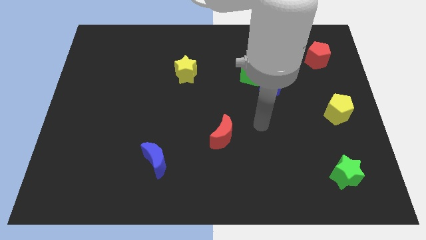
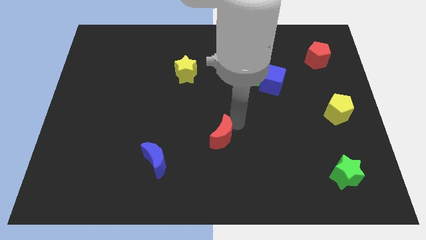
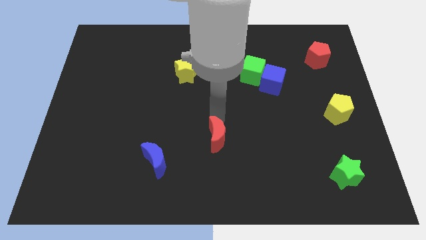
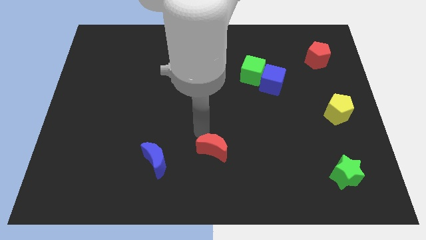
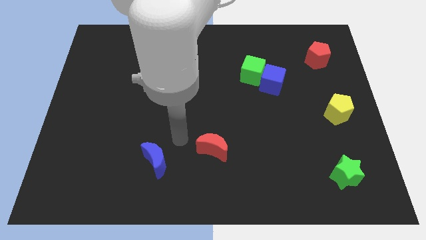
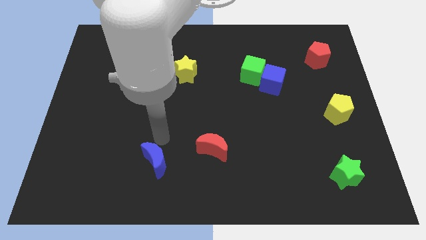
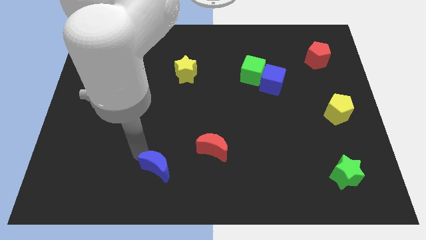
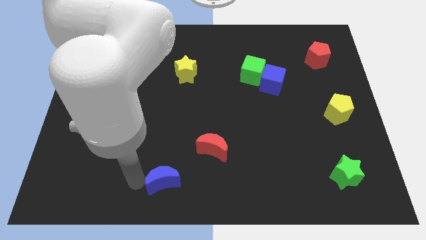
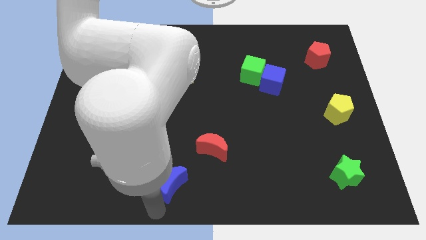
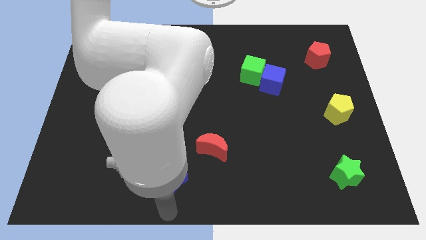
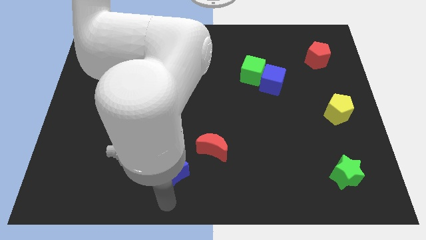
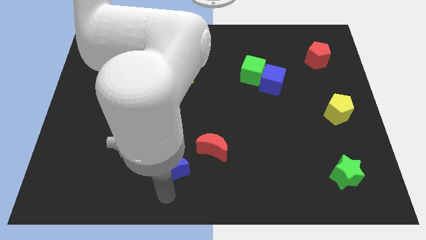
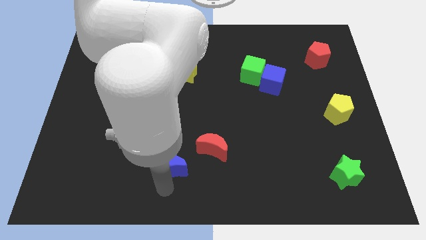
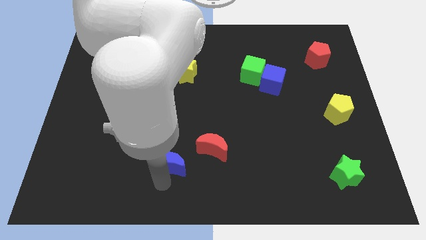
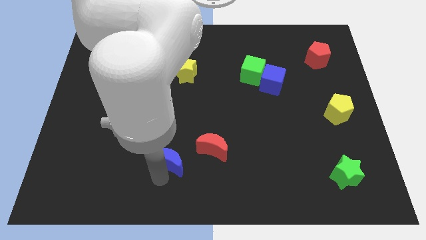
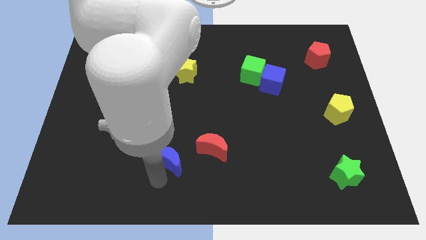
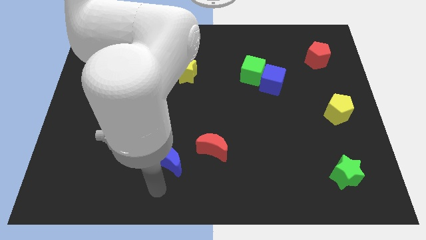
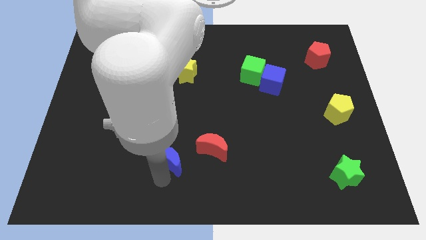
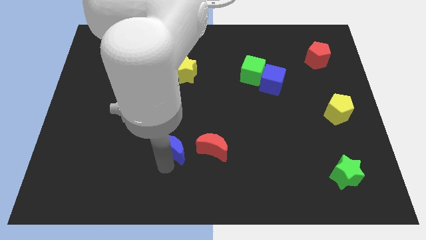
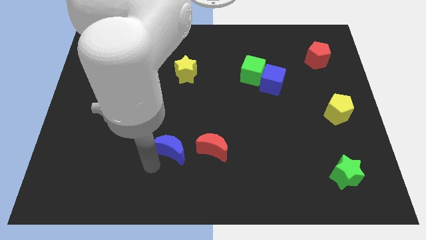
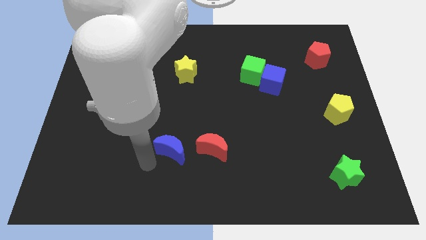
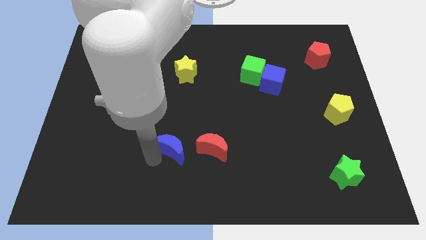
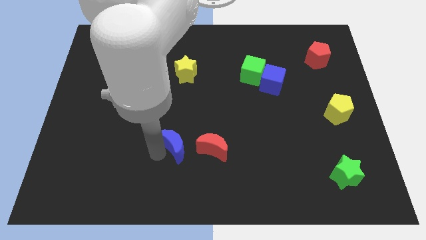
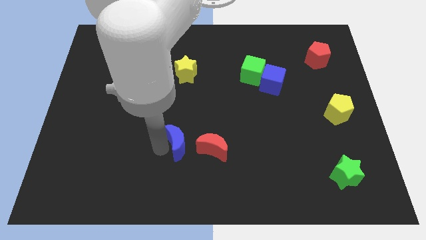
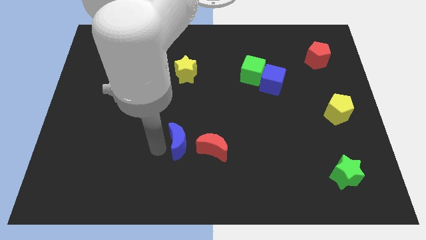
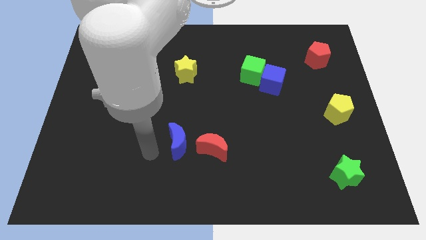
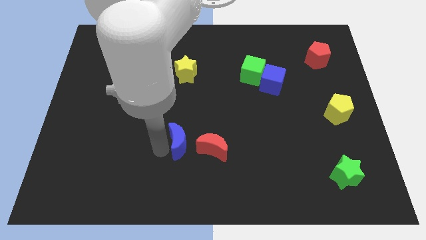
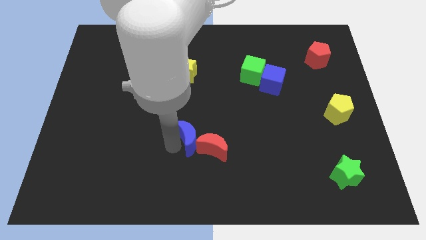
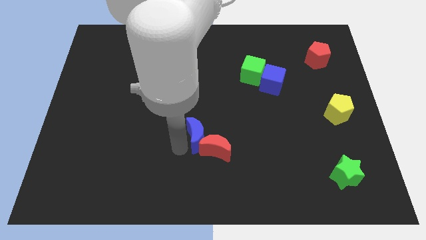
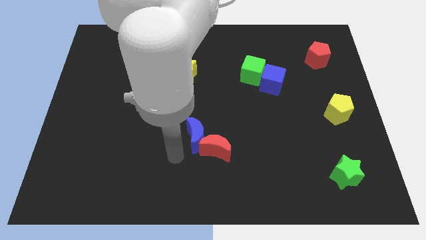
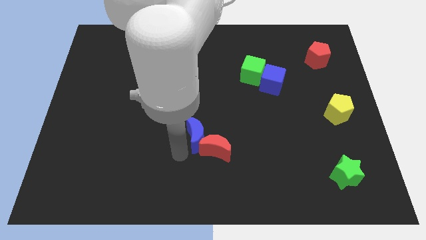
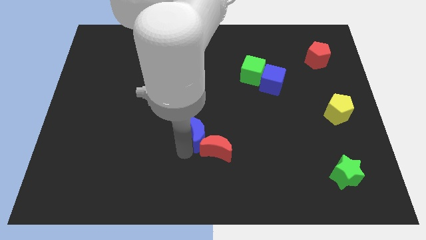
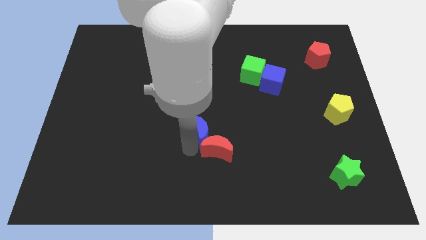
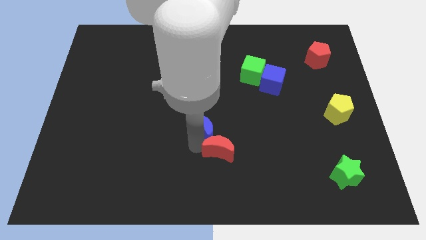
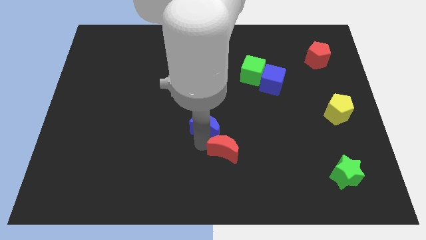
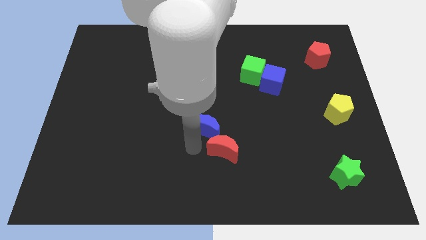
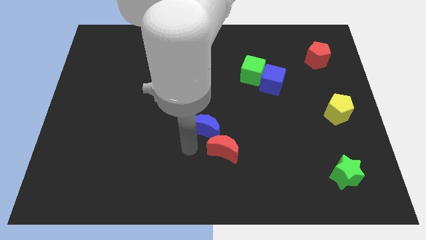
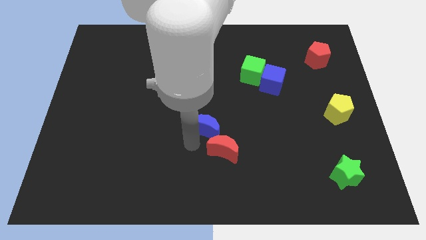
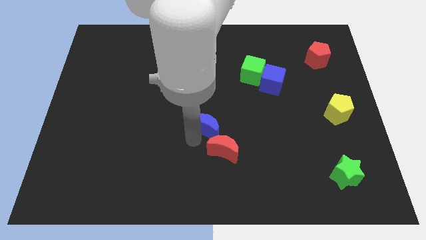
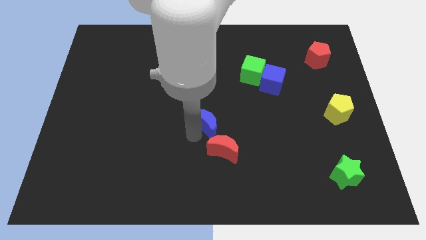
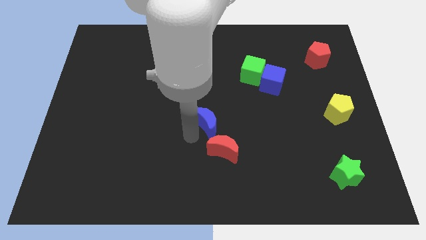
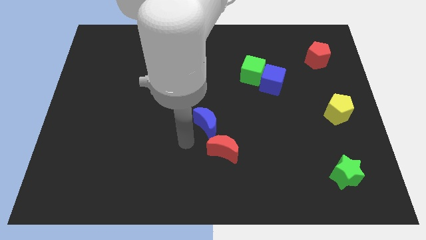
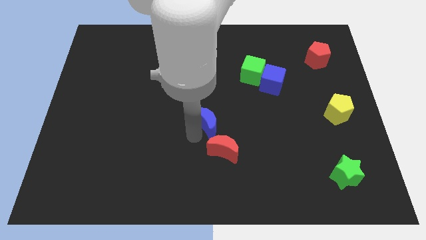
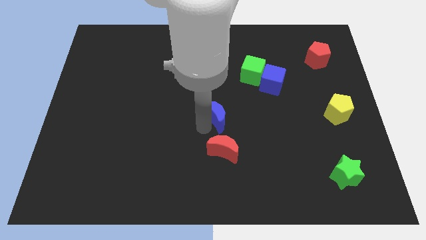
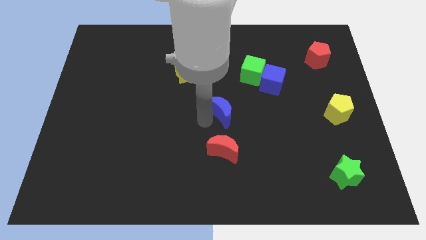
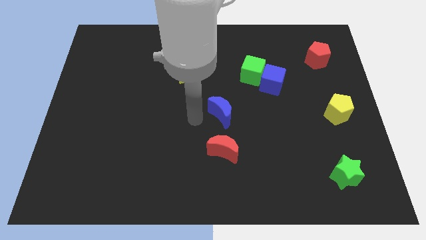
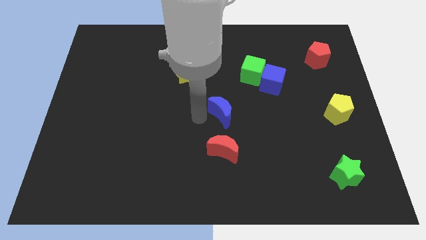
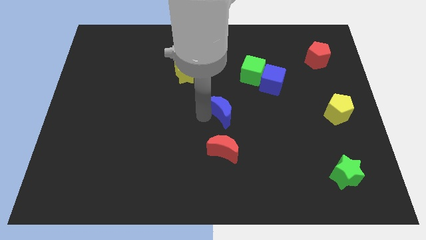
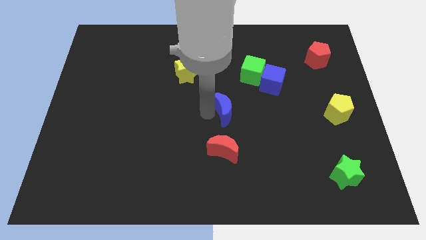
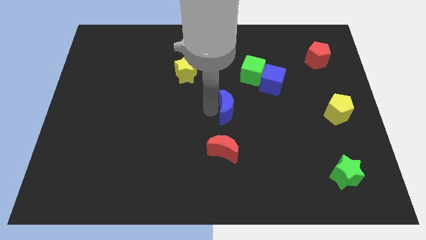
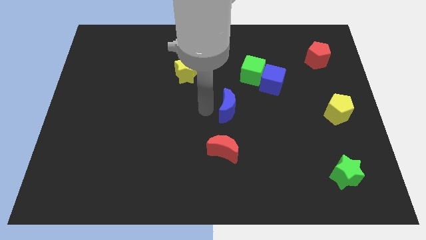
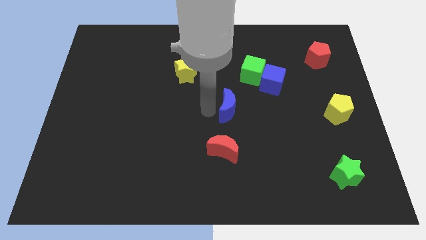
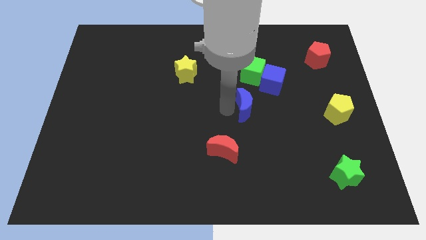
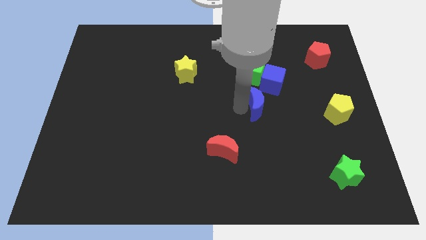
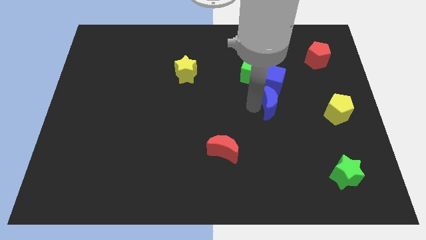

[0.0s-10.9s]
put the blue moon just left of the yellow pentagon

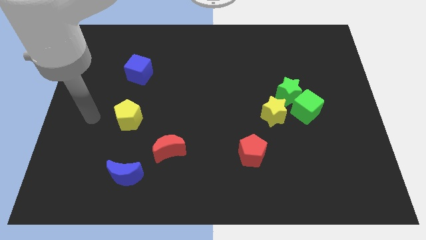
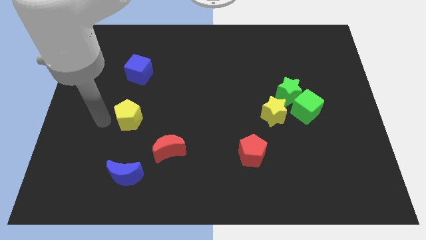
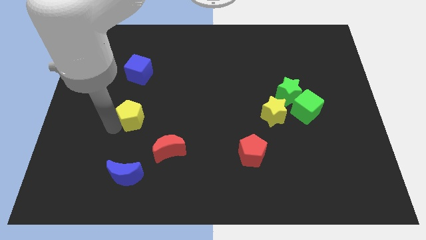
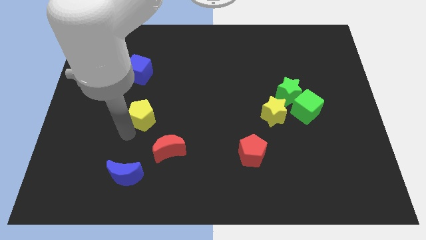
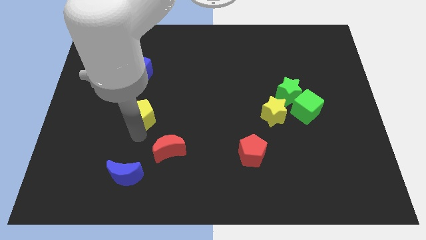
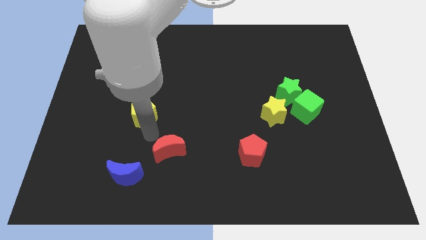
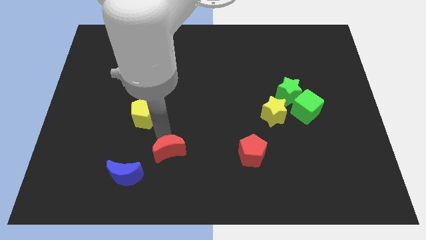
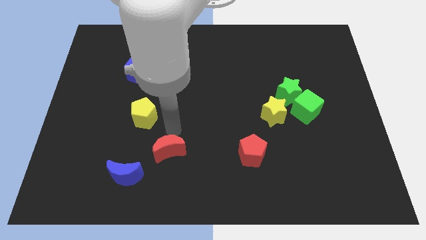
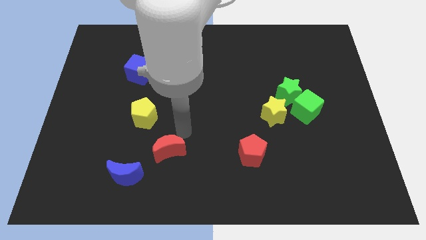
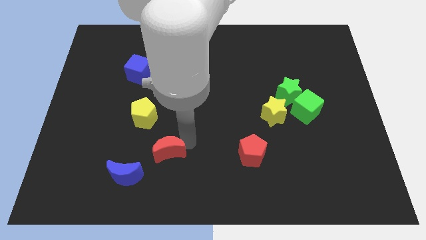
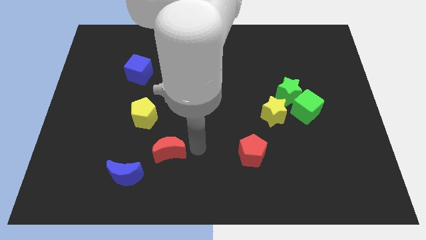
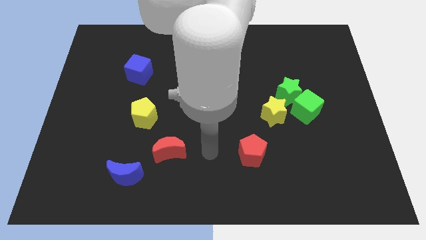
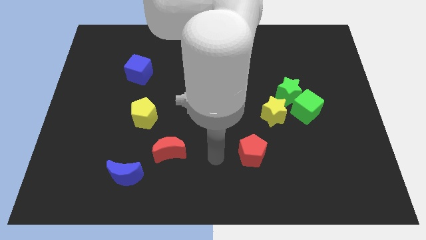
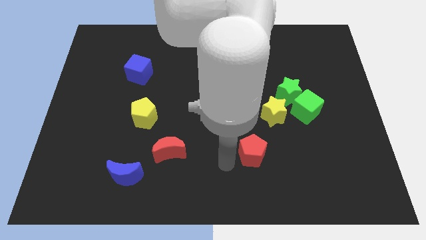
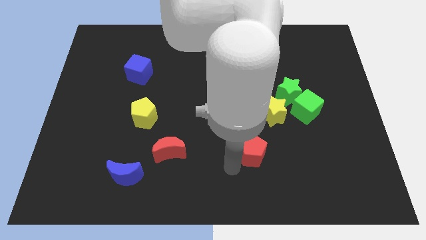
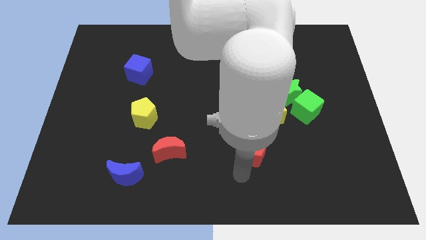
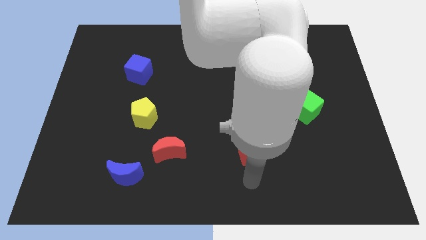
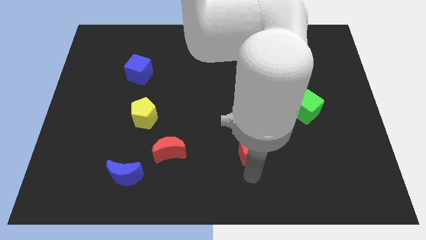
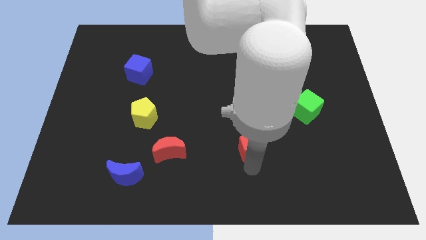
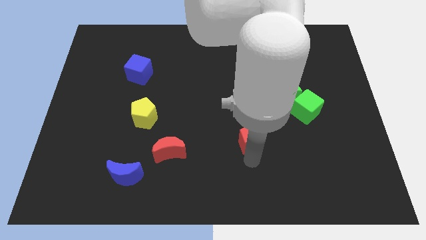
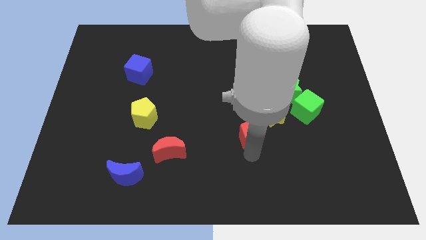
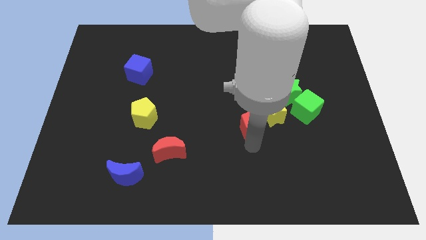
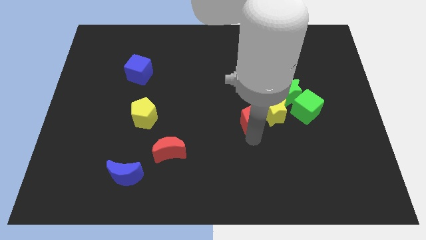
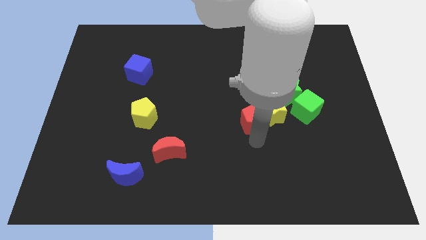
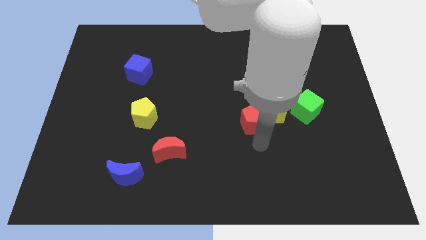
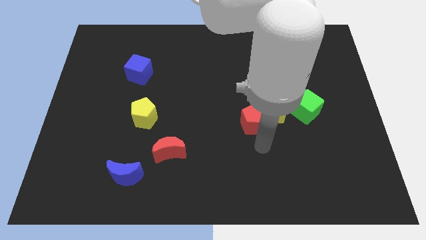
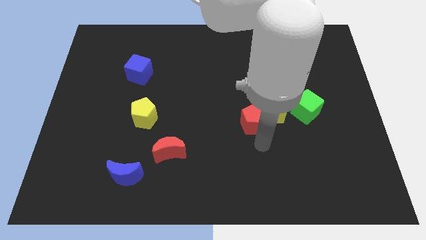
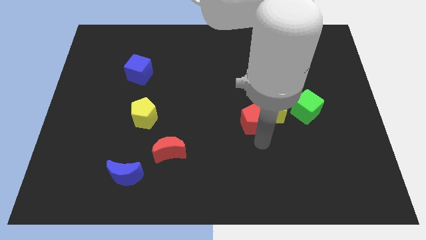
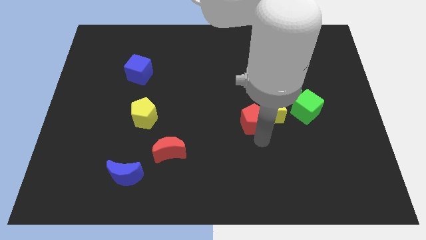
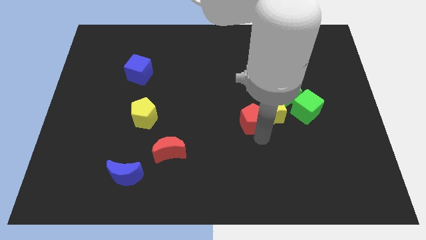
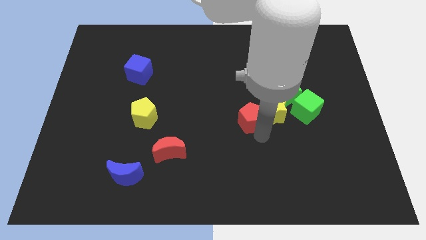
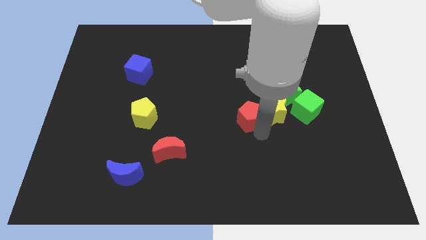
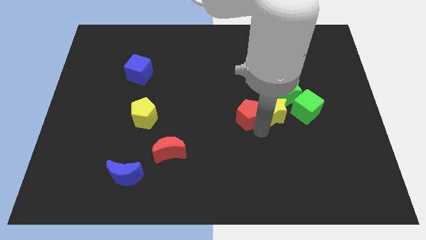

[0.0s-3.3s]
slide the red pentagon to the top left of the yellow star
